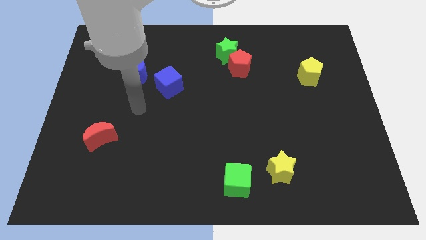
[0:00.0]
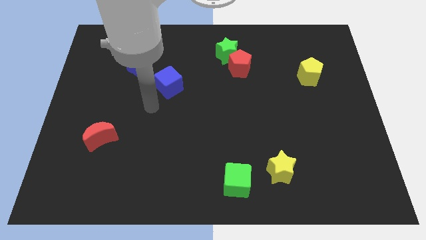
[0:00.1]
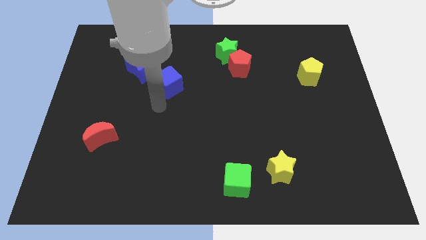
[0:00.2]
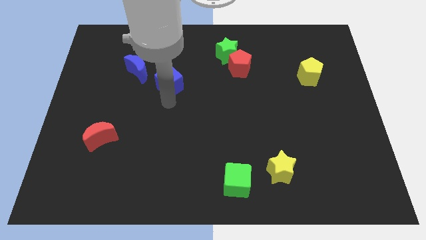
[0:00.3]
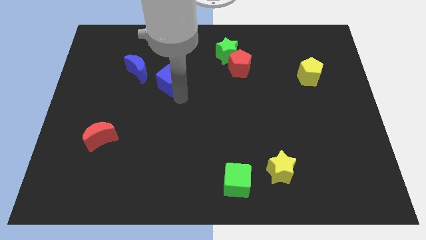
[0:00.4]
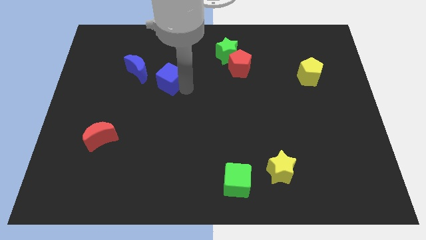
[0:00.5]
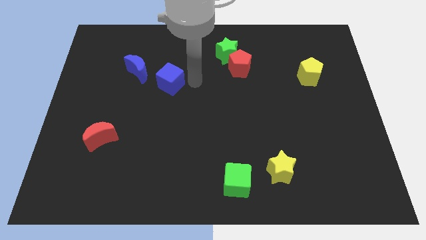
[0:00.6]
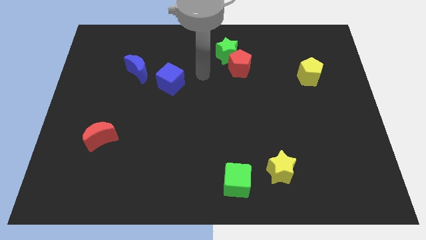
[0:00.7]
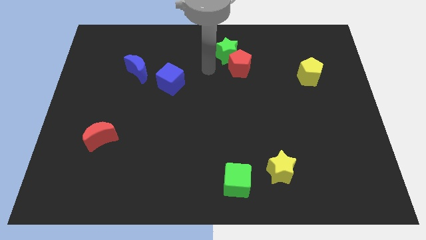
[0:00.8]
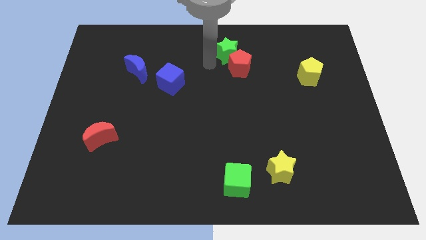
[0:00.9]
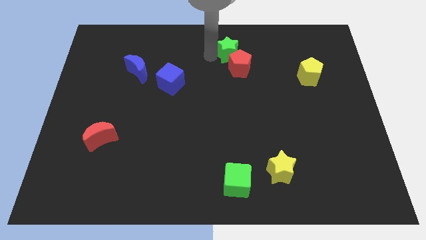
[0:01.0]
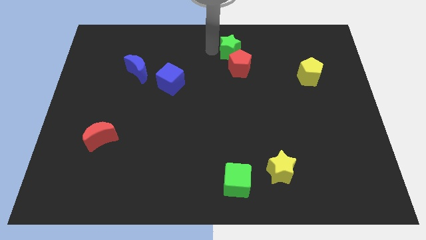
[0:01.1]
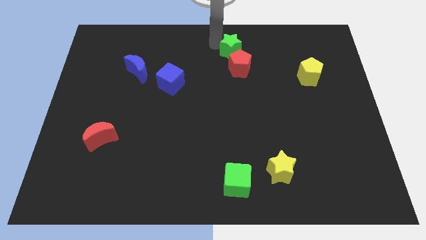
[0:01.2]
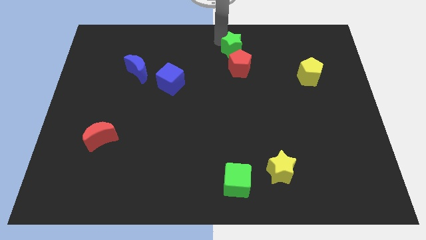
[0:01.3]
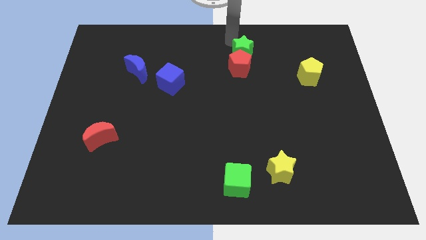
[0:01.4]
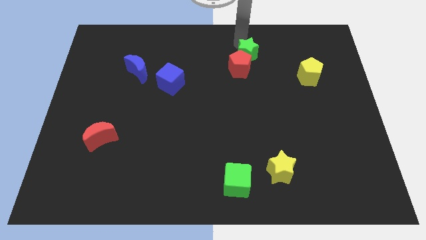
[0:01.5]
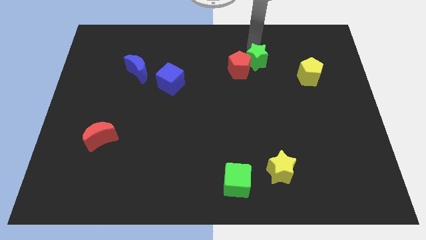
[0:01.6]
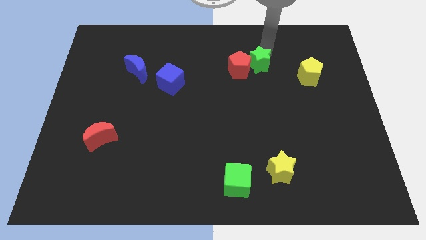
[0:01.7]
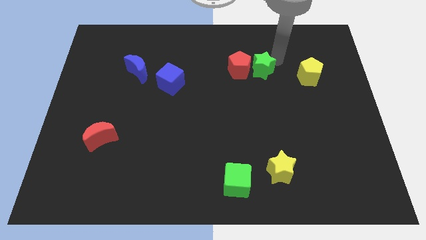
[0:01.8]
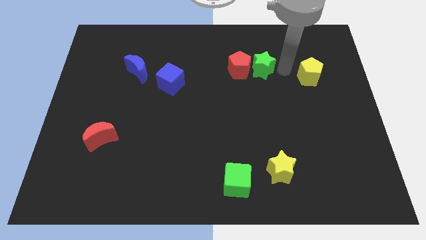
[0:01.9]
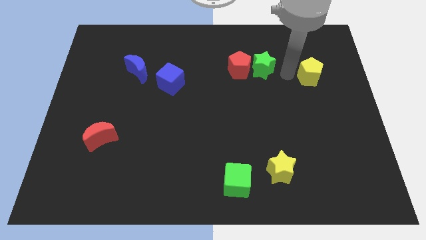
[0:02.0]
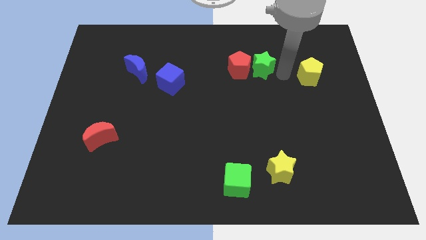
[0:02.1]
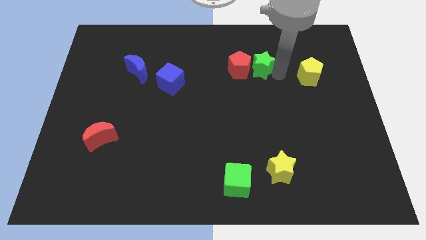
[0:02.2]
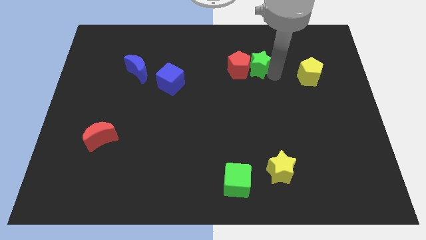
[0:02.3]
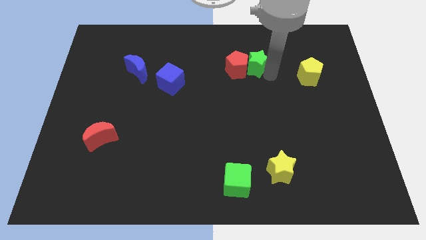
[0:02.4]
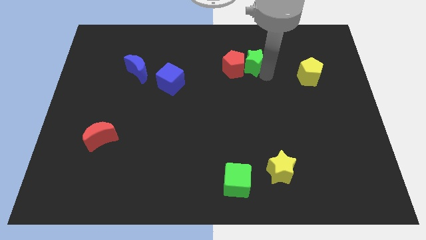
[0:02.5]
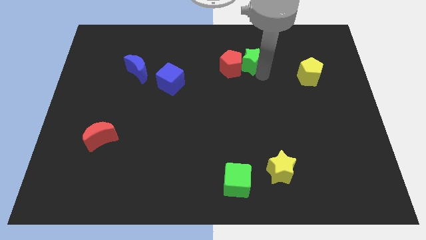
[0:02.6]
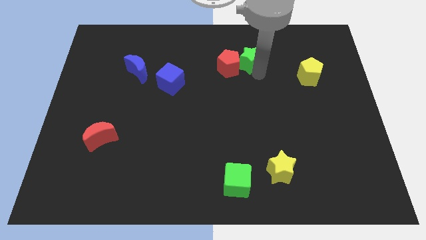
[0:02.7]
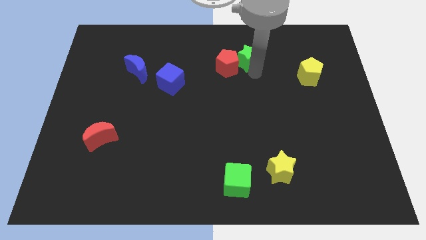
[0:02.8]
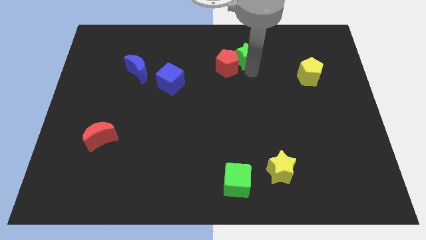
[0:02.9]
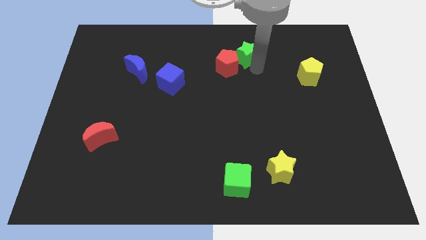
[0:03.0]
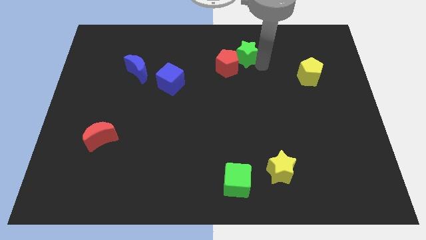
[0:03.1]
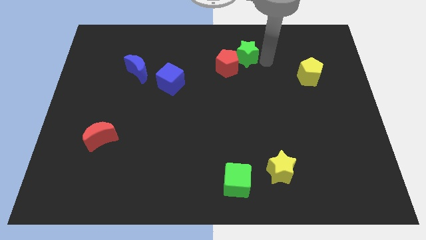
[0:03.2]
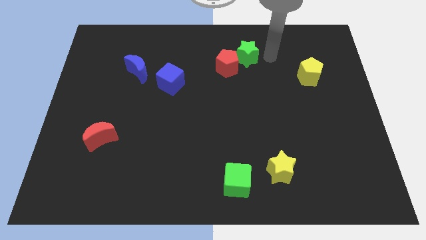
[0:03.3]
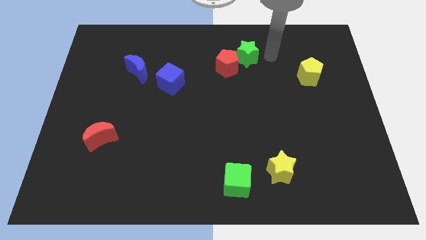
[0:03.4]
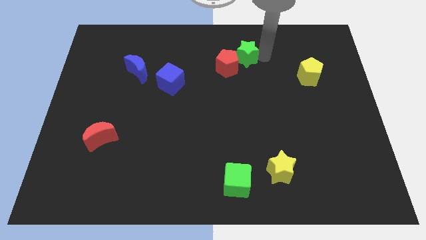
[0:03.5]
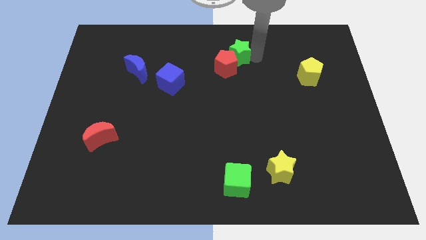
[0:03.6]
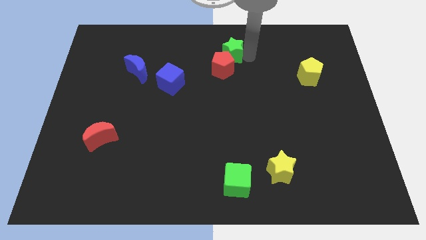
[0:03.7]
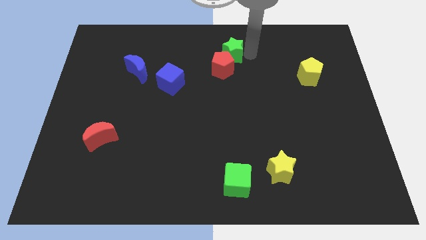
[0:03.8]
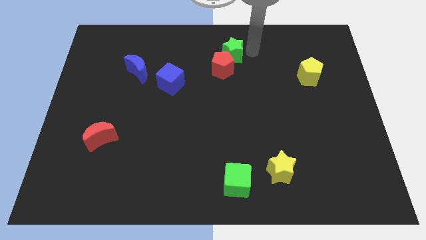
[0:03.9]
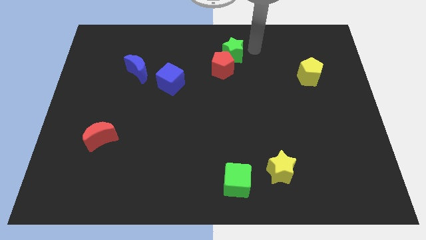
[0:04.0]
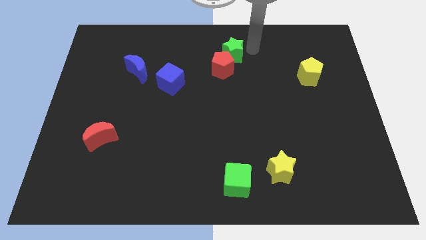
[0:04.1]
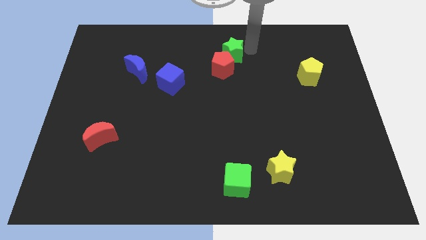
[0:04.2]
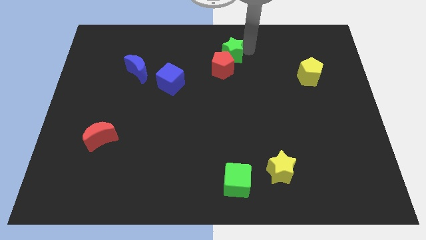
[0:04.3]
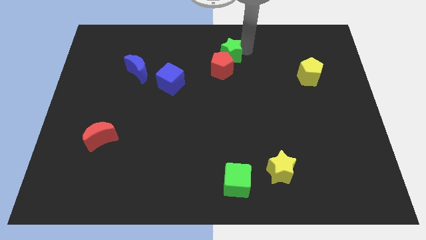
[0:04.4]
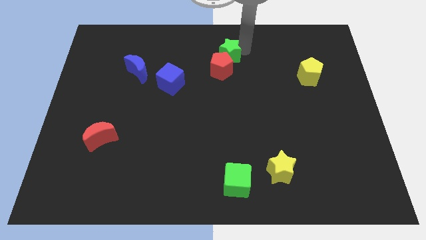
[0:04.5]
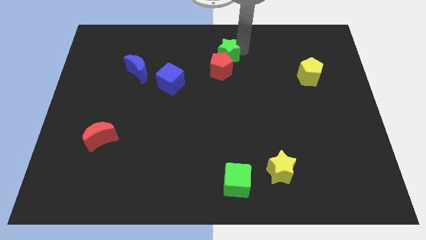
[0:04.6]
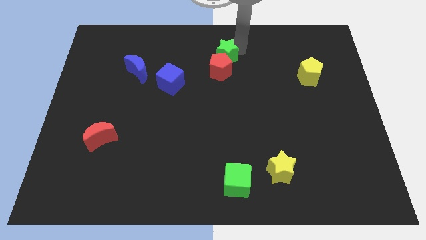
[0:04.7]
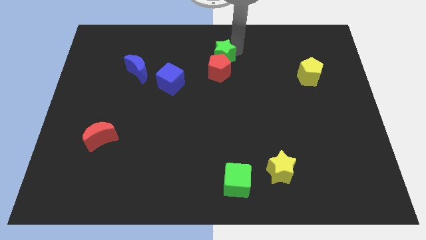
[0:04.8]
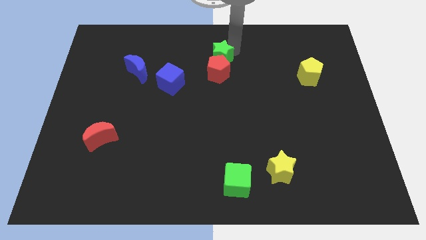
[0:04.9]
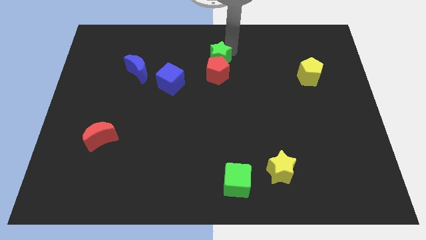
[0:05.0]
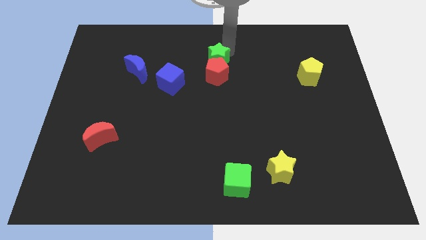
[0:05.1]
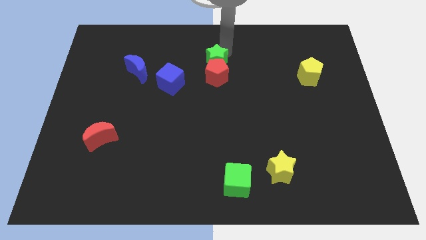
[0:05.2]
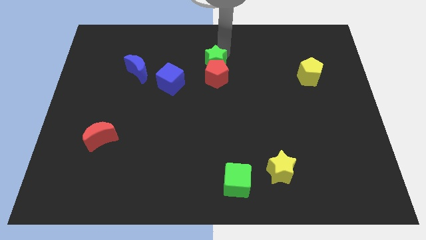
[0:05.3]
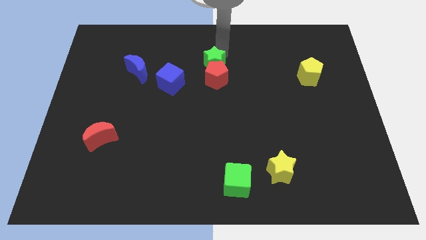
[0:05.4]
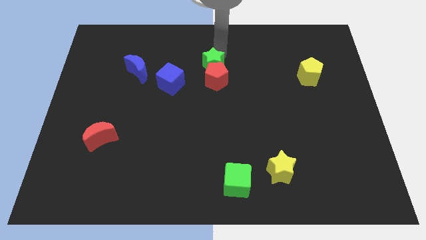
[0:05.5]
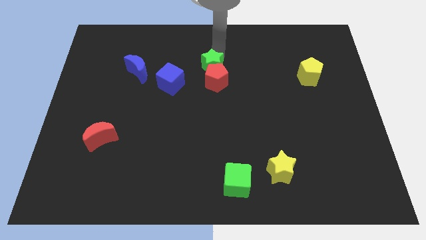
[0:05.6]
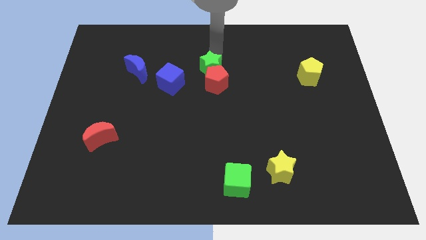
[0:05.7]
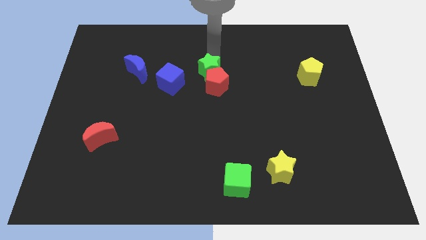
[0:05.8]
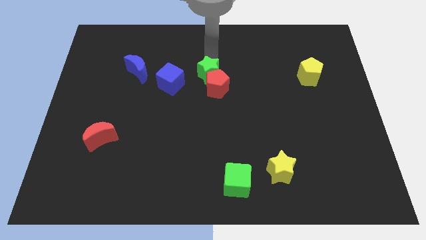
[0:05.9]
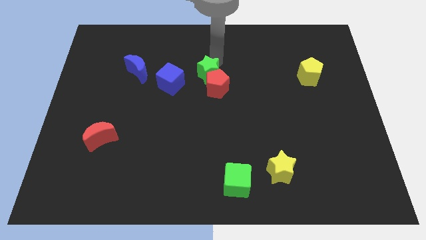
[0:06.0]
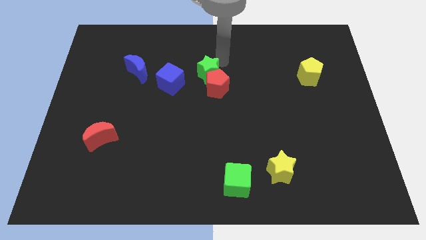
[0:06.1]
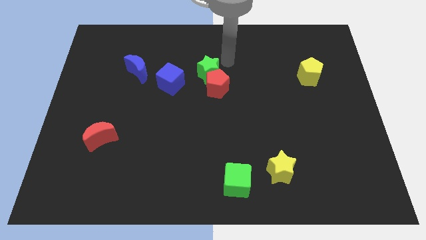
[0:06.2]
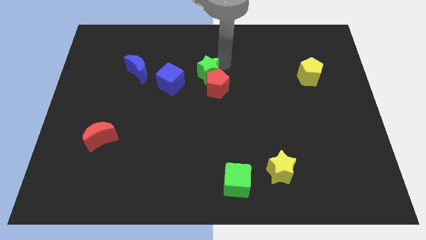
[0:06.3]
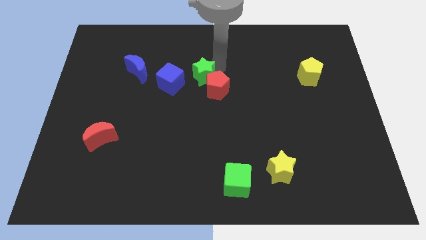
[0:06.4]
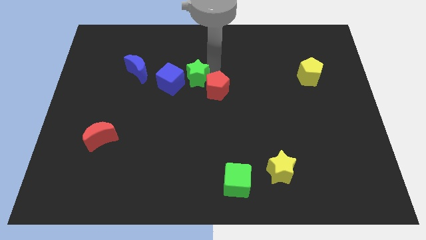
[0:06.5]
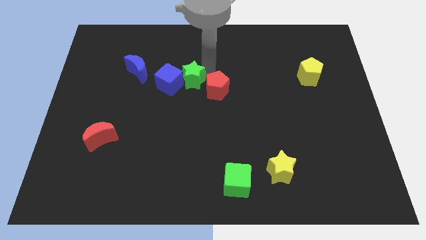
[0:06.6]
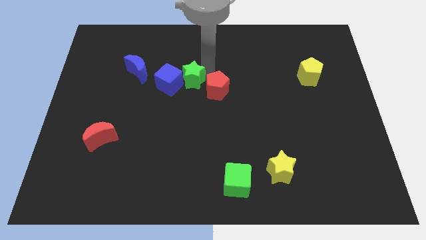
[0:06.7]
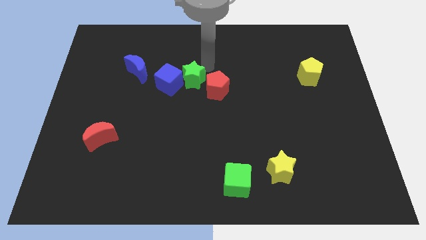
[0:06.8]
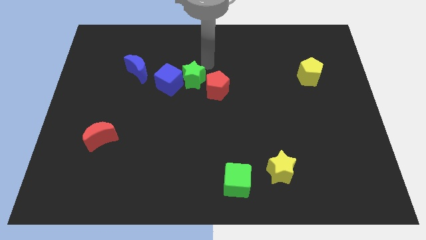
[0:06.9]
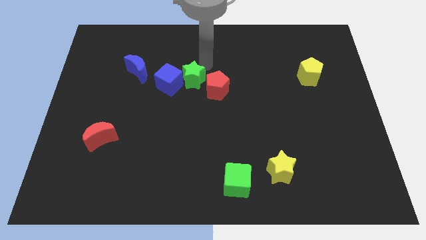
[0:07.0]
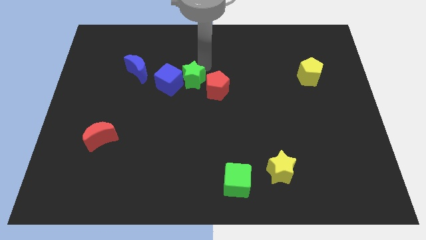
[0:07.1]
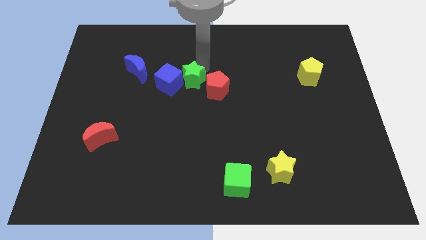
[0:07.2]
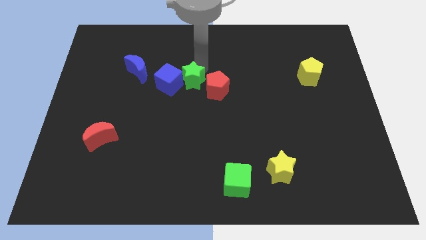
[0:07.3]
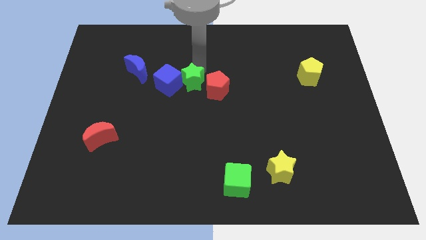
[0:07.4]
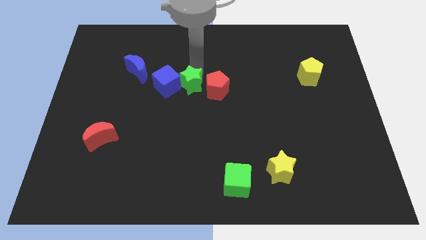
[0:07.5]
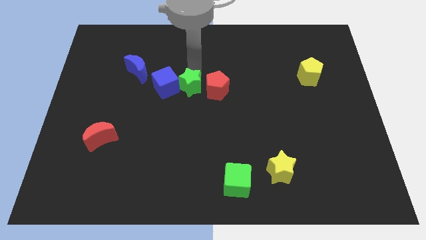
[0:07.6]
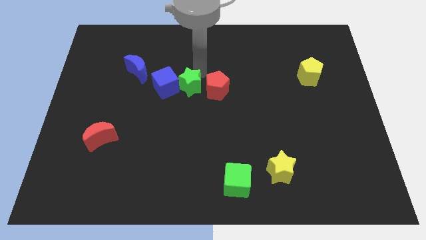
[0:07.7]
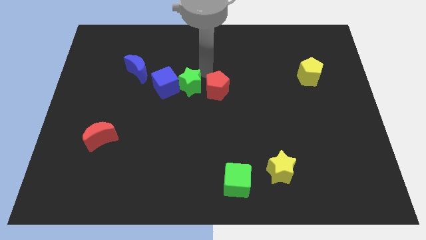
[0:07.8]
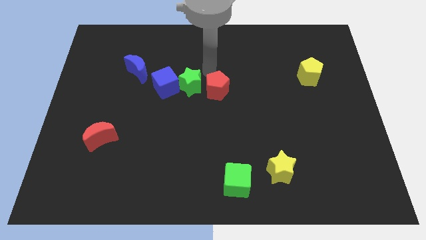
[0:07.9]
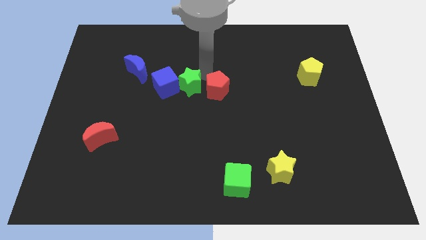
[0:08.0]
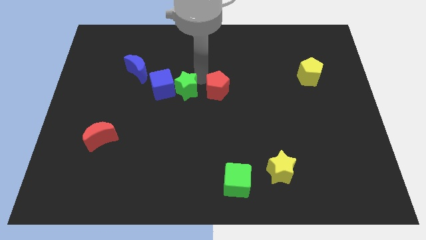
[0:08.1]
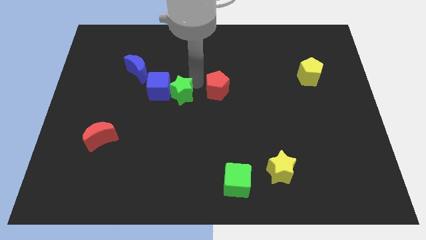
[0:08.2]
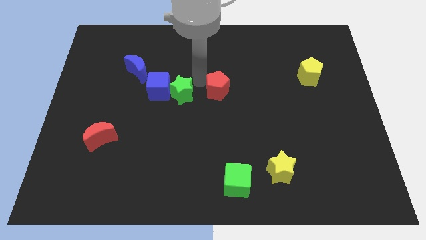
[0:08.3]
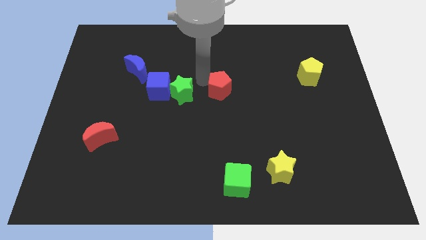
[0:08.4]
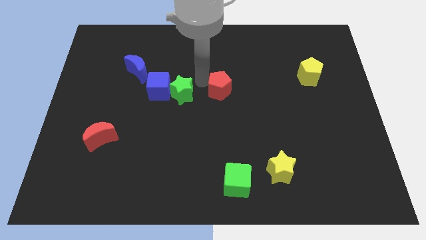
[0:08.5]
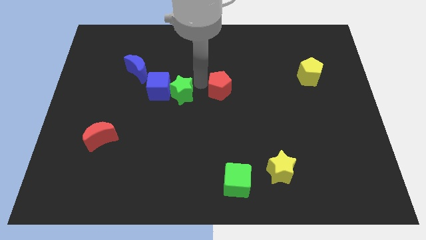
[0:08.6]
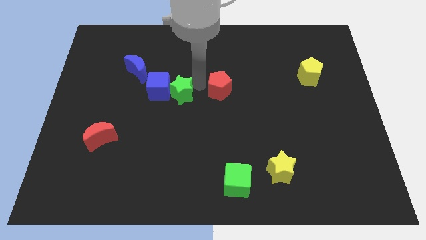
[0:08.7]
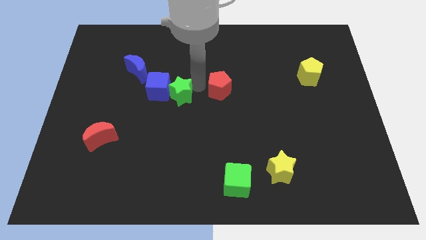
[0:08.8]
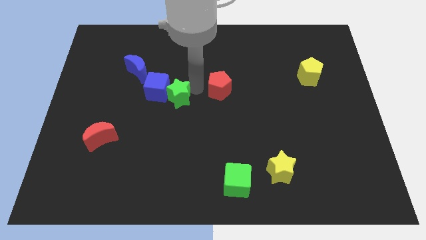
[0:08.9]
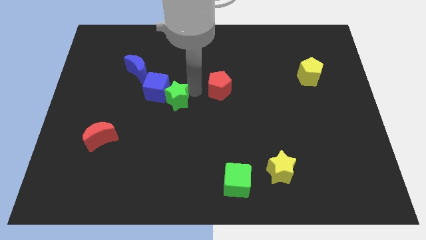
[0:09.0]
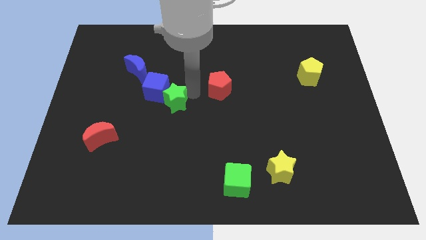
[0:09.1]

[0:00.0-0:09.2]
push the green star diagonally downwards and left
